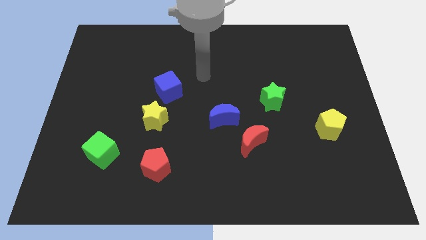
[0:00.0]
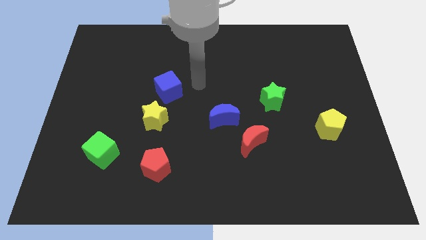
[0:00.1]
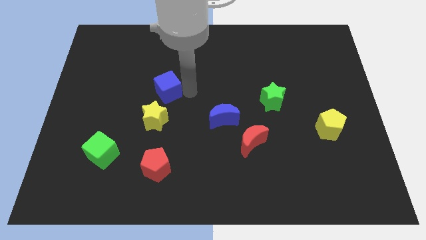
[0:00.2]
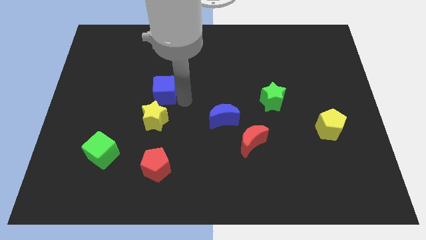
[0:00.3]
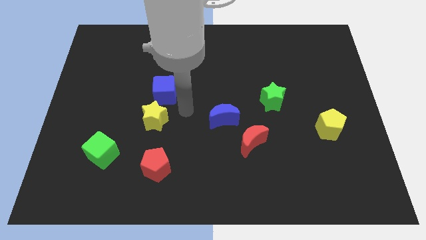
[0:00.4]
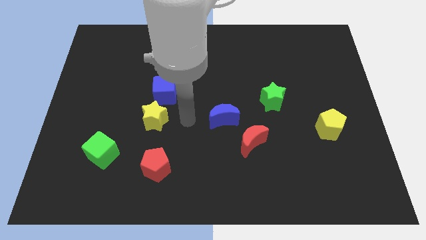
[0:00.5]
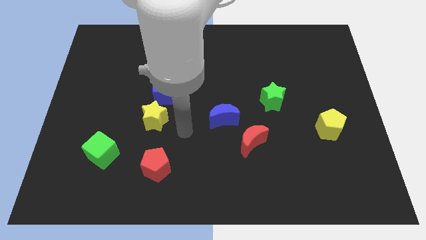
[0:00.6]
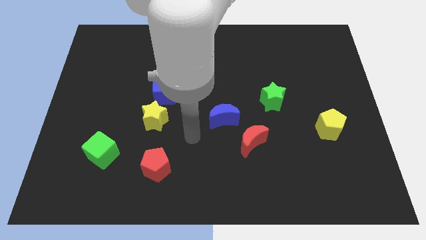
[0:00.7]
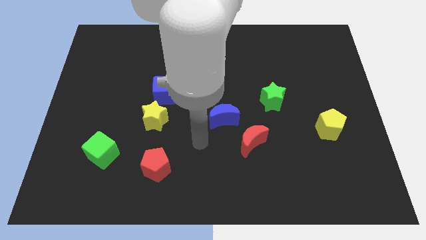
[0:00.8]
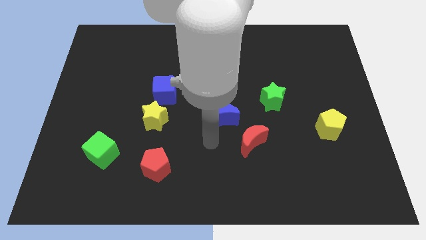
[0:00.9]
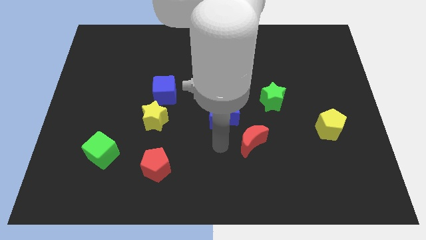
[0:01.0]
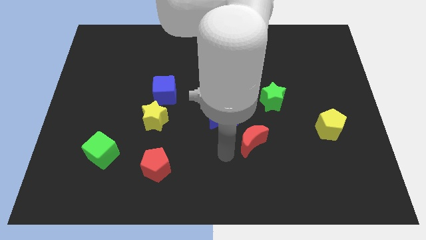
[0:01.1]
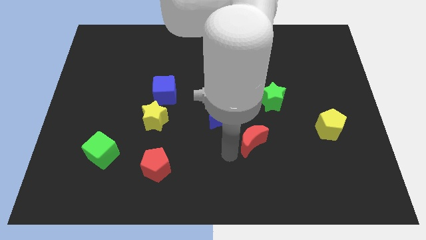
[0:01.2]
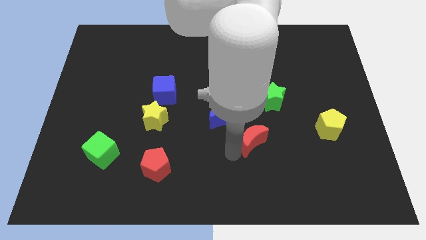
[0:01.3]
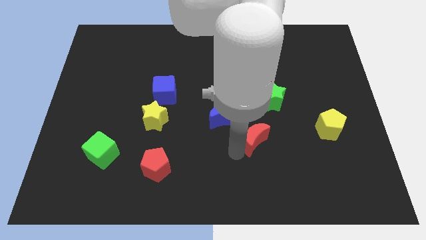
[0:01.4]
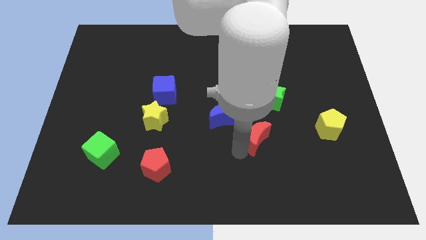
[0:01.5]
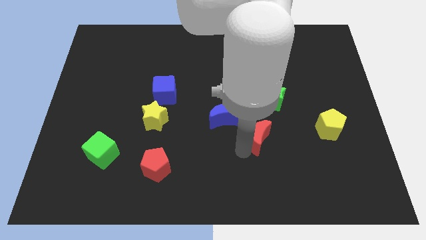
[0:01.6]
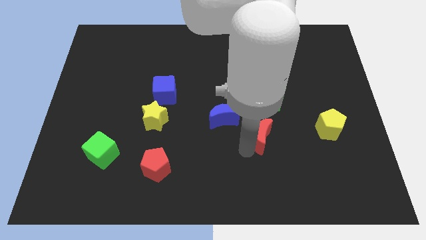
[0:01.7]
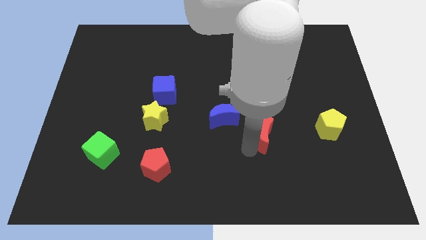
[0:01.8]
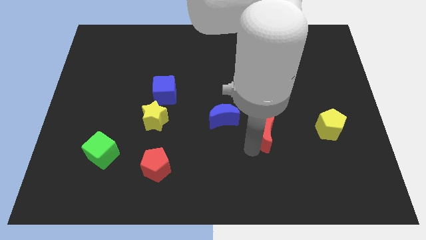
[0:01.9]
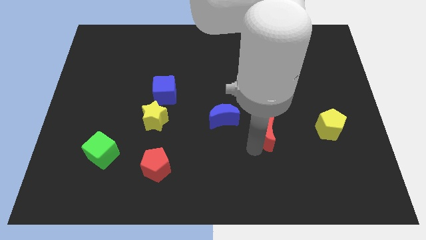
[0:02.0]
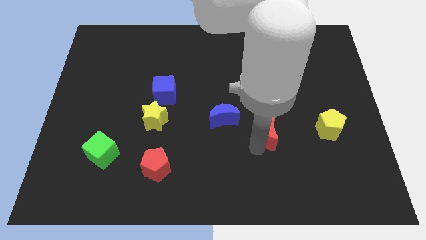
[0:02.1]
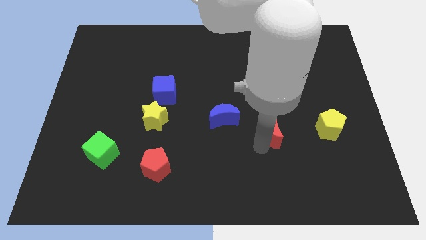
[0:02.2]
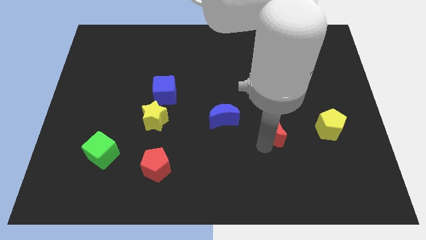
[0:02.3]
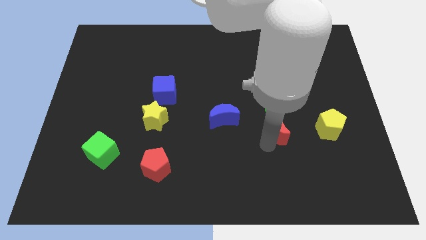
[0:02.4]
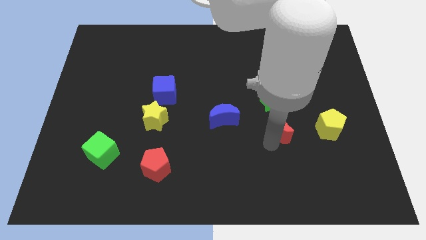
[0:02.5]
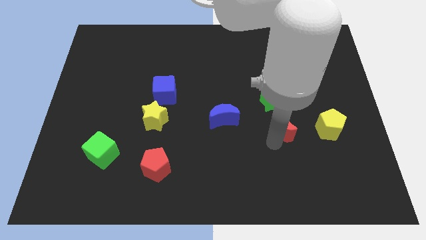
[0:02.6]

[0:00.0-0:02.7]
push the red moon somewhat diagonally upwards and right

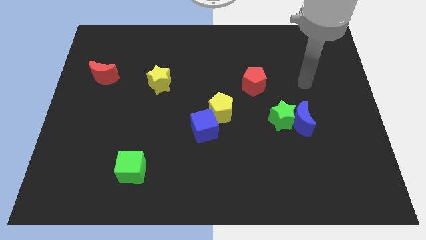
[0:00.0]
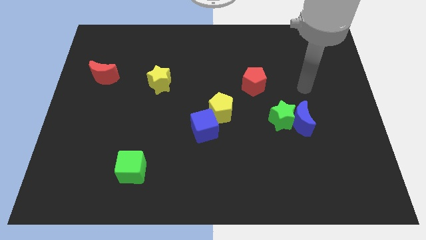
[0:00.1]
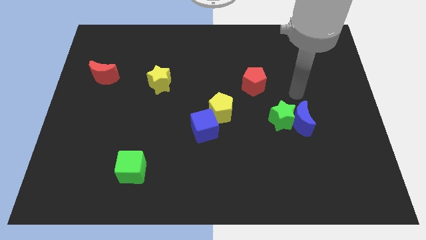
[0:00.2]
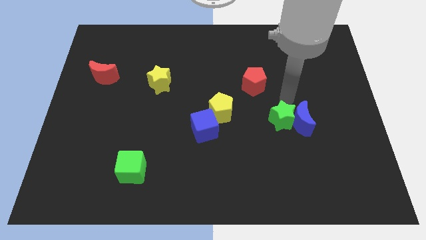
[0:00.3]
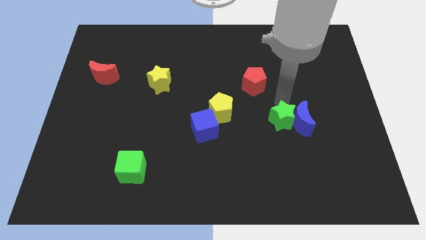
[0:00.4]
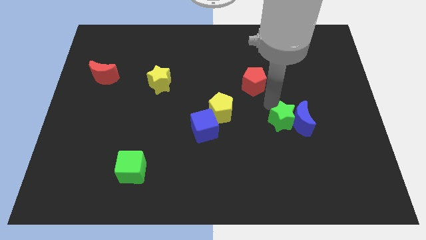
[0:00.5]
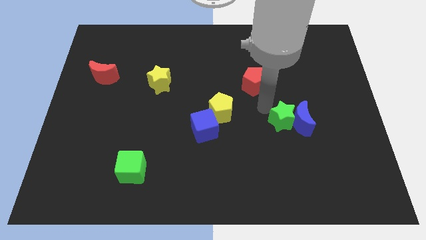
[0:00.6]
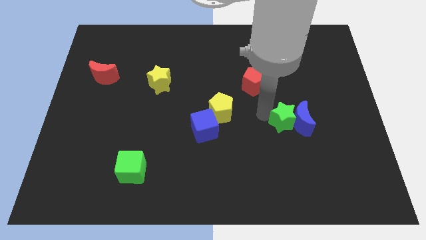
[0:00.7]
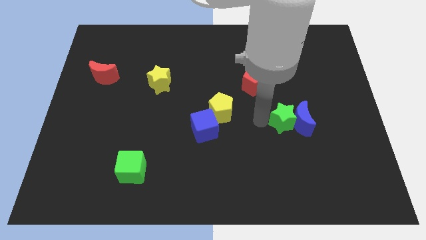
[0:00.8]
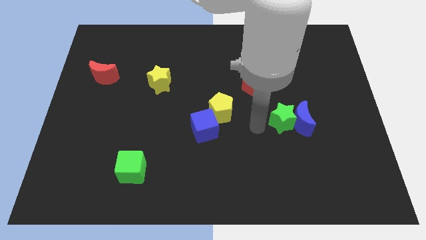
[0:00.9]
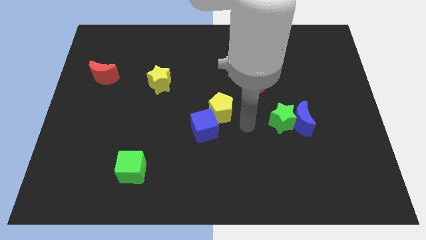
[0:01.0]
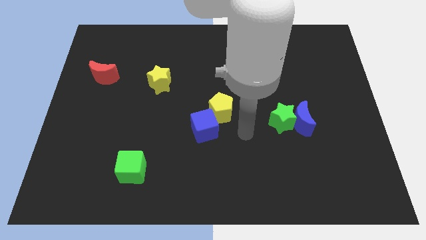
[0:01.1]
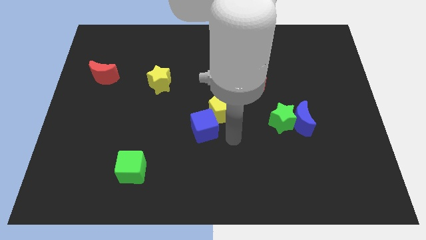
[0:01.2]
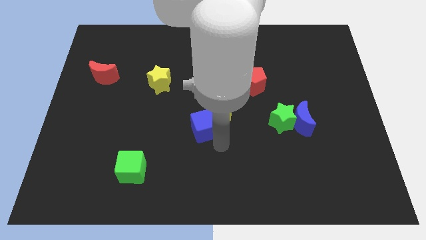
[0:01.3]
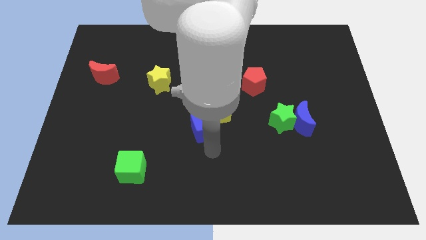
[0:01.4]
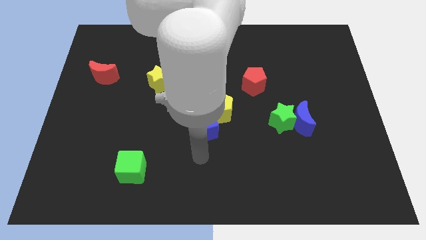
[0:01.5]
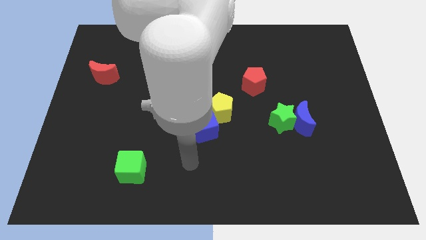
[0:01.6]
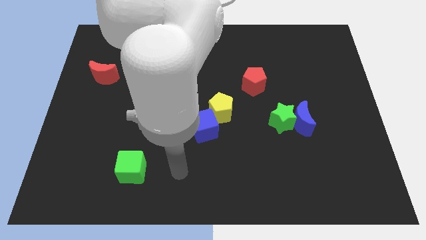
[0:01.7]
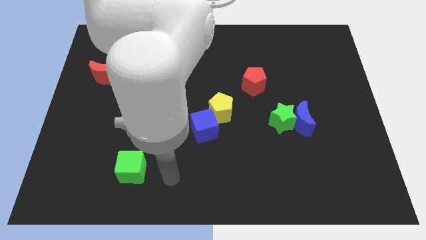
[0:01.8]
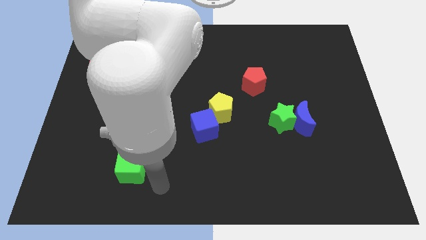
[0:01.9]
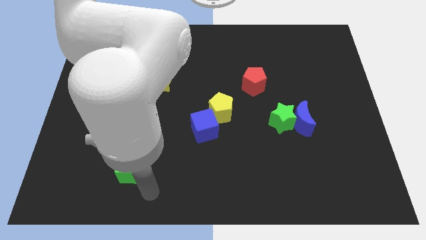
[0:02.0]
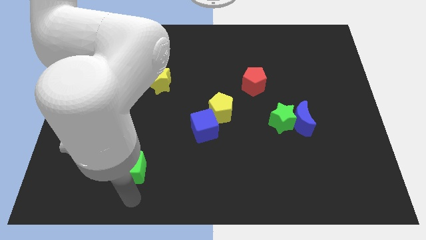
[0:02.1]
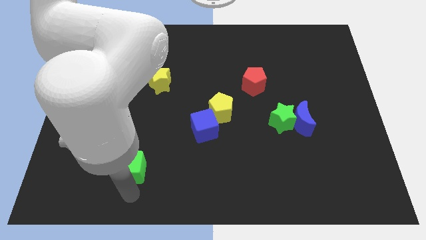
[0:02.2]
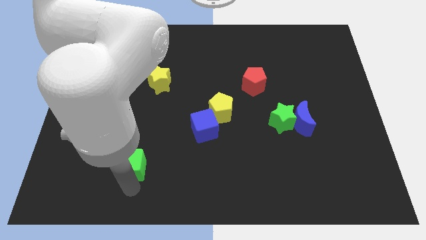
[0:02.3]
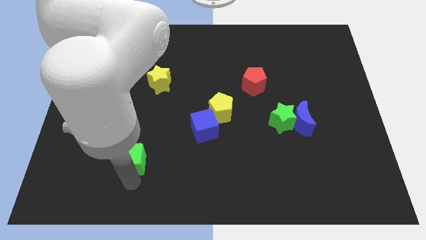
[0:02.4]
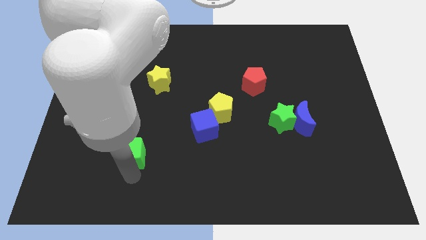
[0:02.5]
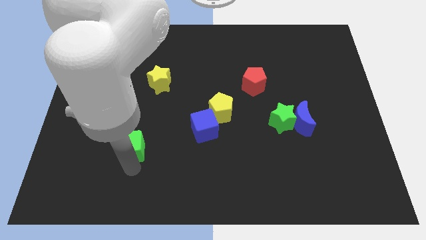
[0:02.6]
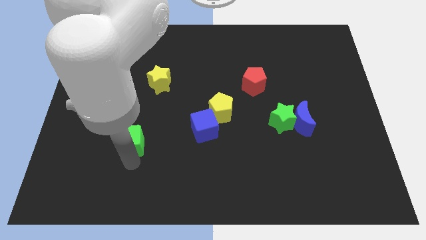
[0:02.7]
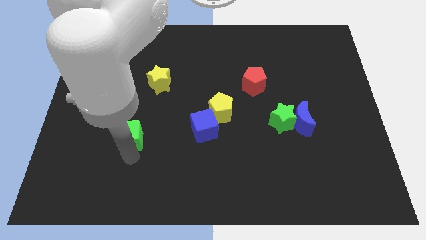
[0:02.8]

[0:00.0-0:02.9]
move the green cube a little bit up

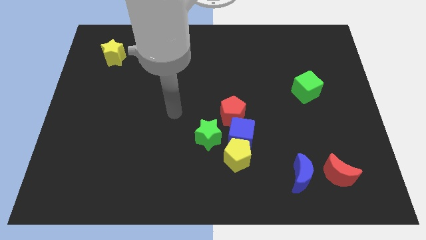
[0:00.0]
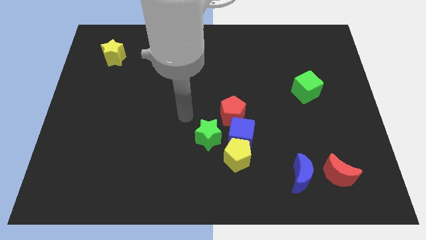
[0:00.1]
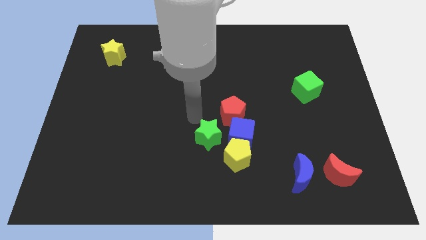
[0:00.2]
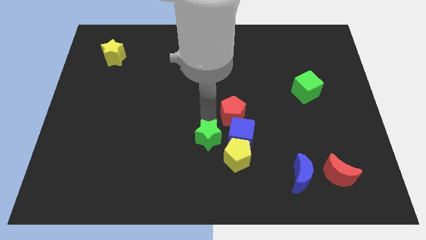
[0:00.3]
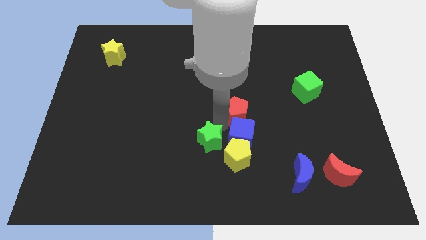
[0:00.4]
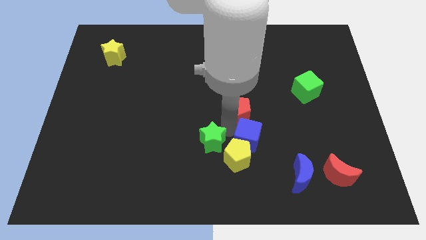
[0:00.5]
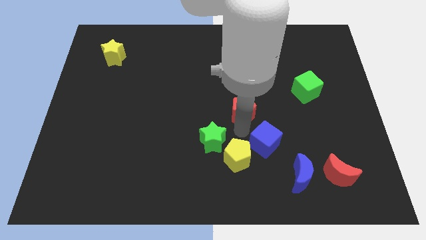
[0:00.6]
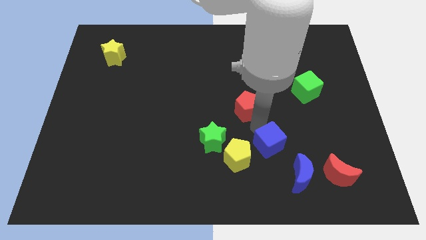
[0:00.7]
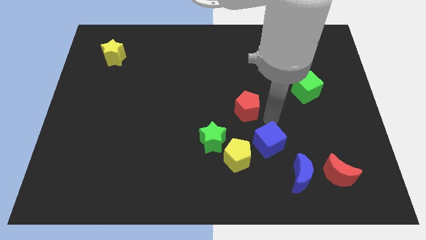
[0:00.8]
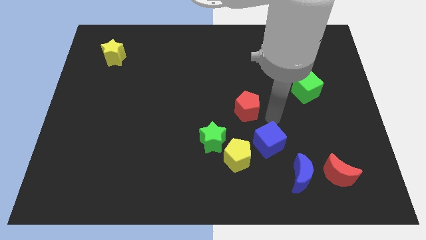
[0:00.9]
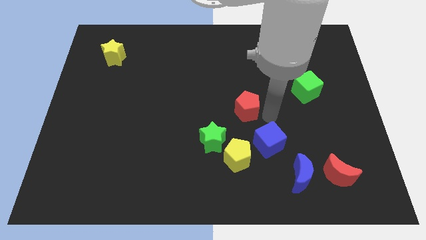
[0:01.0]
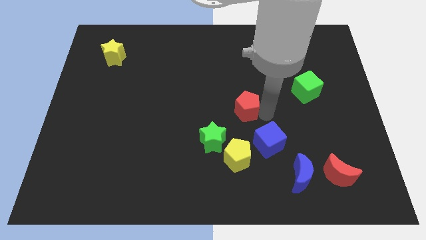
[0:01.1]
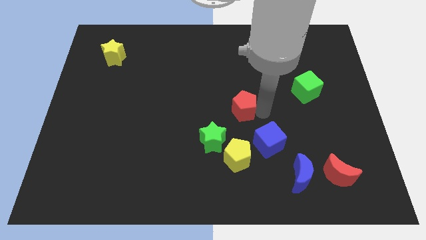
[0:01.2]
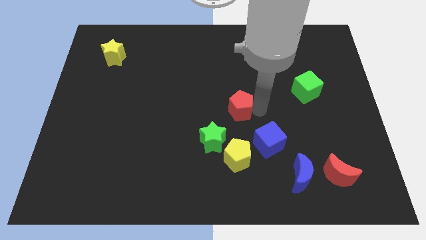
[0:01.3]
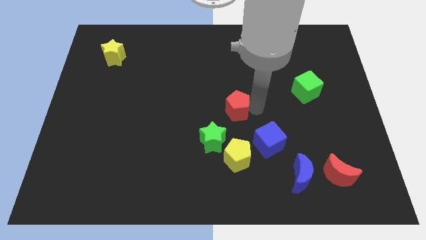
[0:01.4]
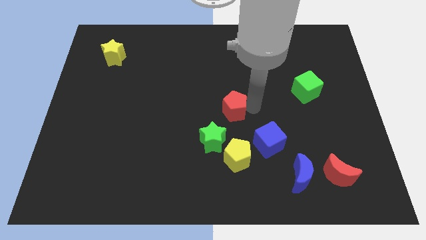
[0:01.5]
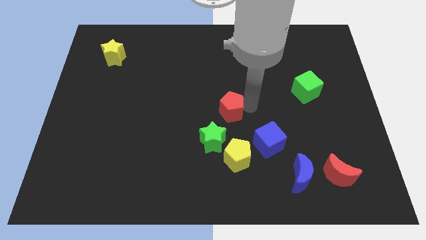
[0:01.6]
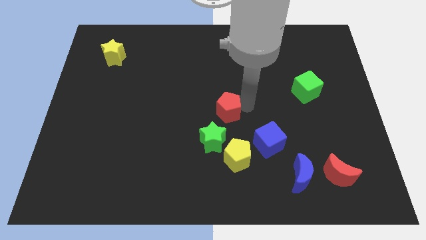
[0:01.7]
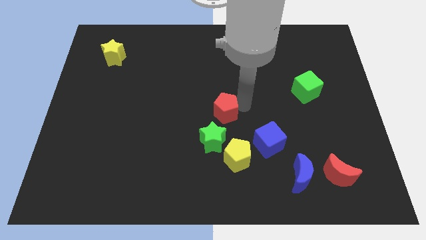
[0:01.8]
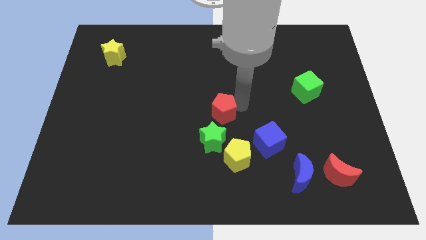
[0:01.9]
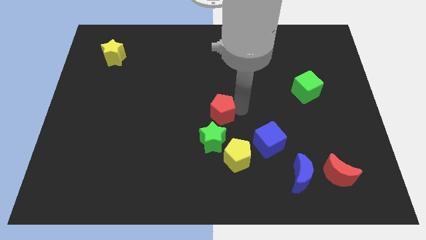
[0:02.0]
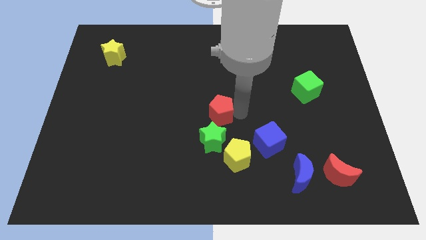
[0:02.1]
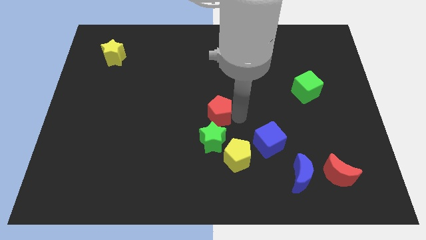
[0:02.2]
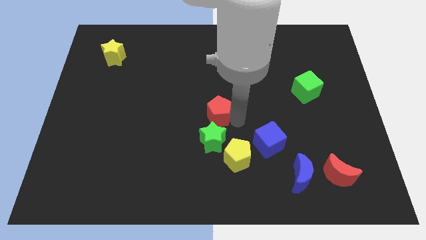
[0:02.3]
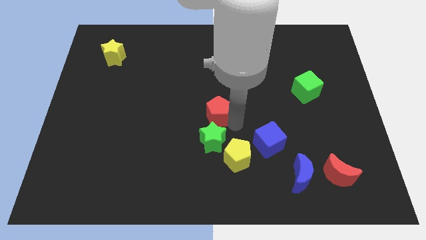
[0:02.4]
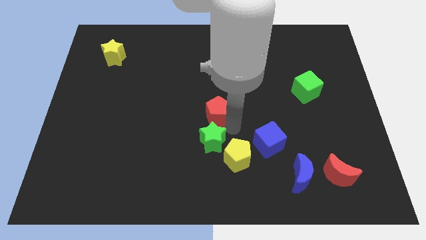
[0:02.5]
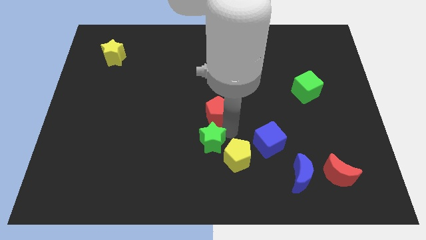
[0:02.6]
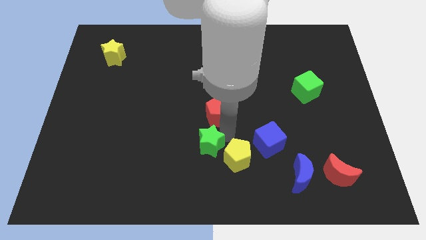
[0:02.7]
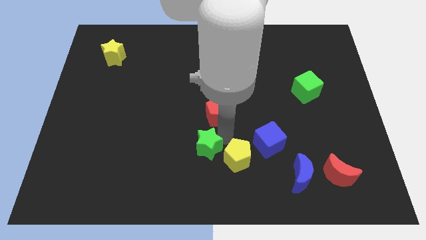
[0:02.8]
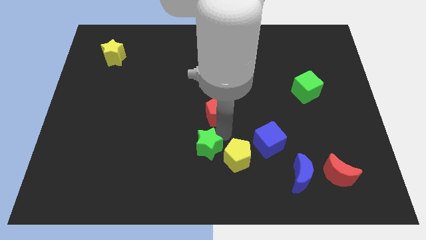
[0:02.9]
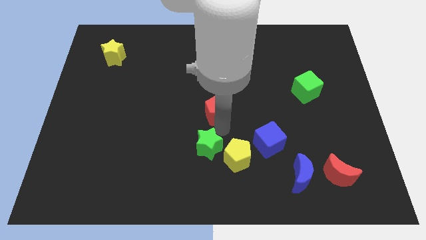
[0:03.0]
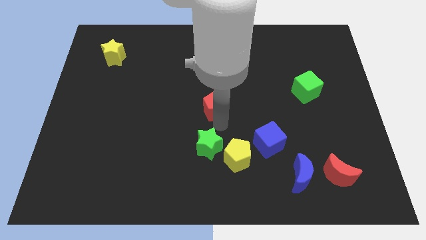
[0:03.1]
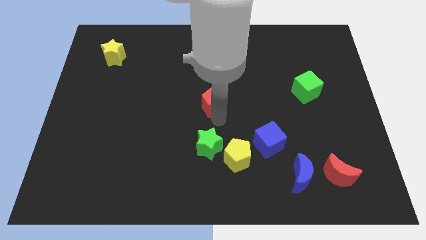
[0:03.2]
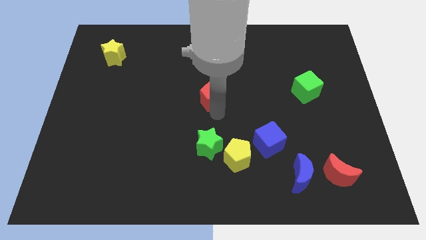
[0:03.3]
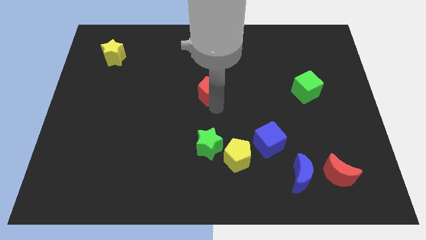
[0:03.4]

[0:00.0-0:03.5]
slide the red pentagon somewhat up and then to the left
